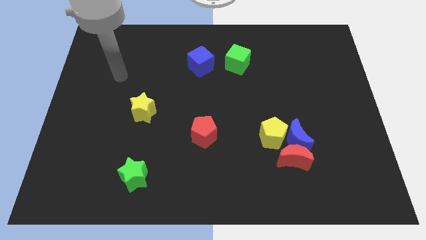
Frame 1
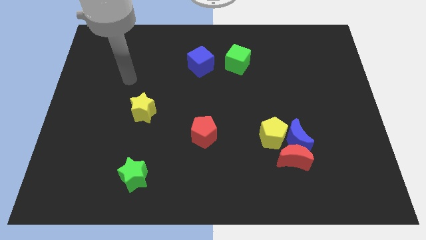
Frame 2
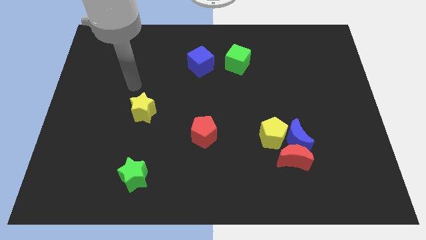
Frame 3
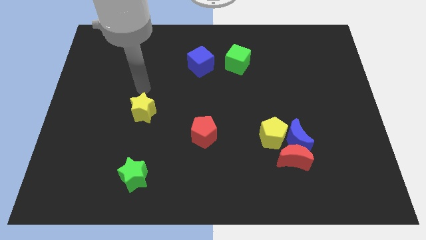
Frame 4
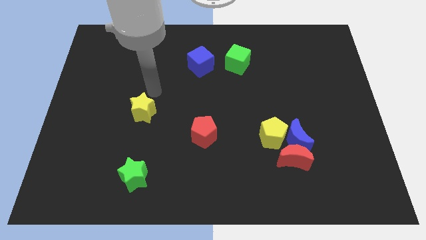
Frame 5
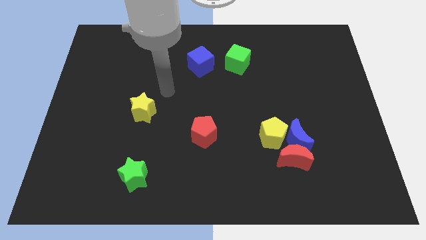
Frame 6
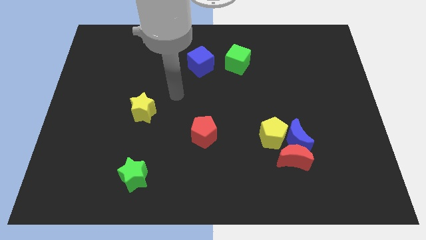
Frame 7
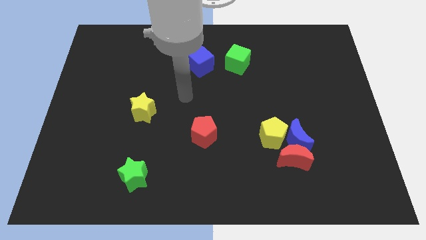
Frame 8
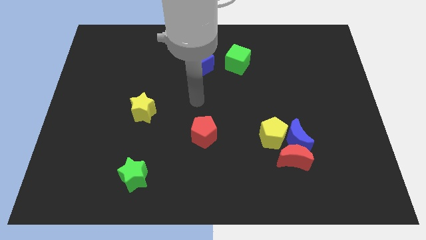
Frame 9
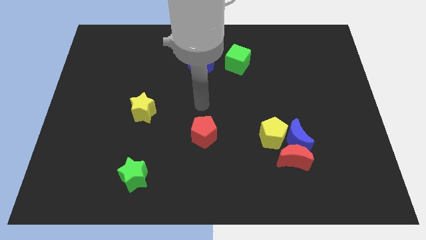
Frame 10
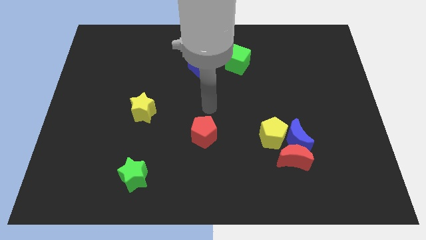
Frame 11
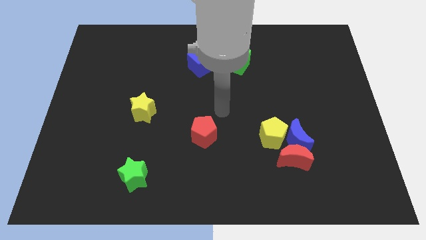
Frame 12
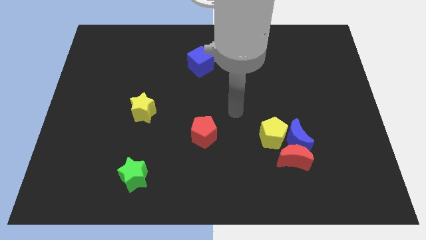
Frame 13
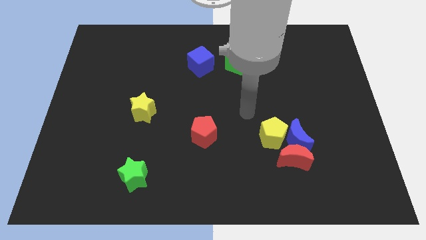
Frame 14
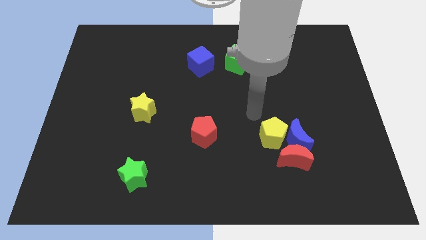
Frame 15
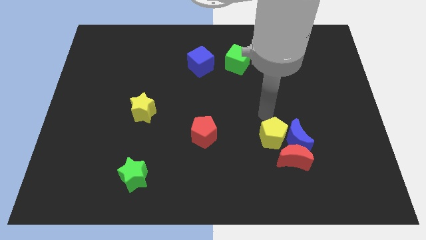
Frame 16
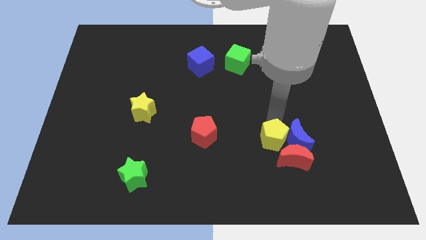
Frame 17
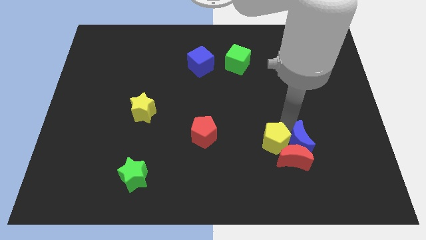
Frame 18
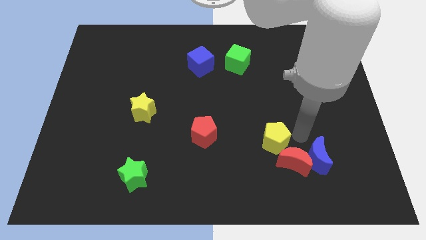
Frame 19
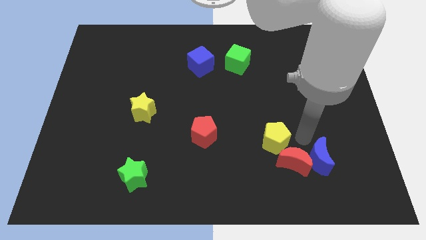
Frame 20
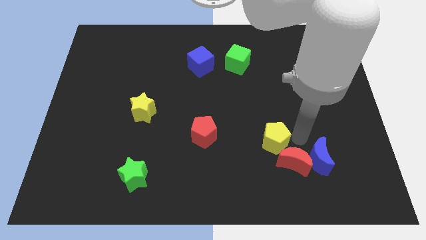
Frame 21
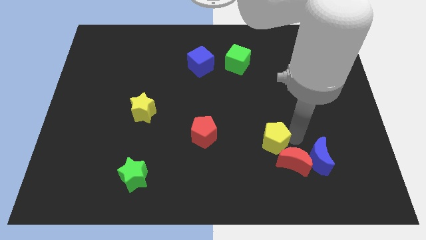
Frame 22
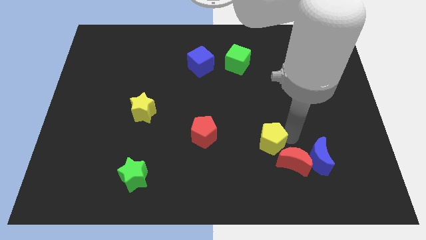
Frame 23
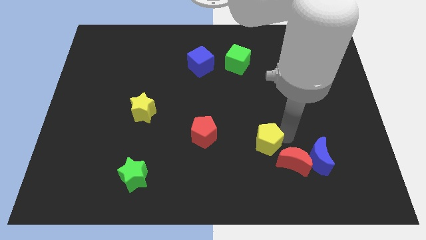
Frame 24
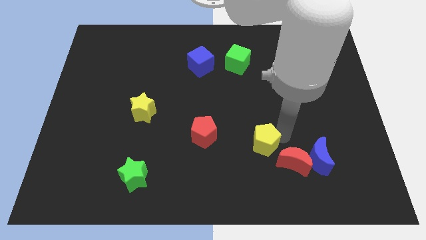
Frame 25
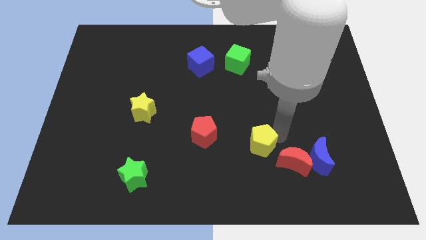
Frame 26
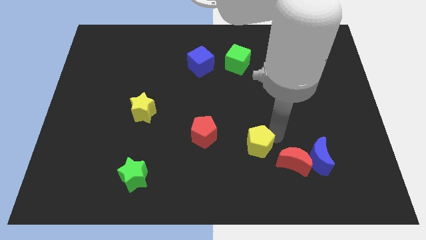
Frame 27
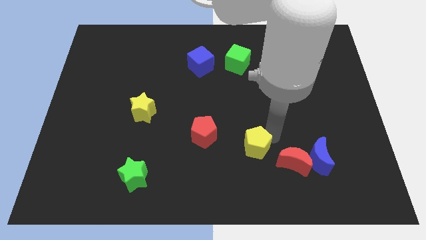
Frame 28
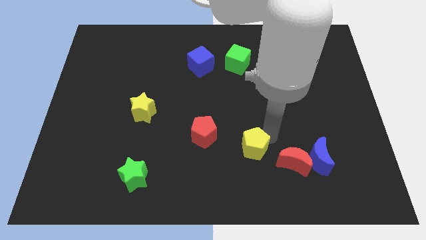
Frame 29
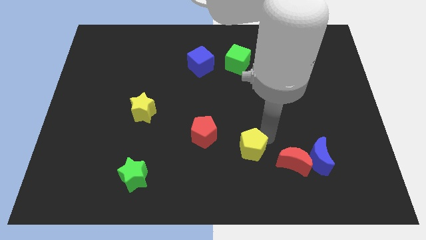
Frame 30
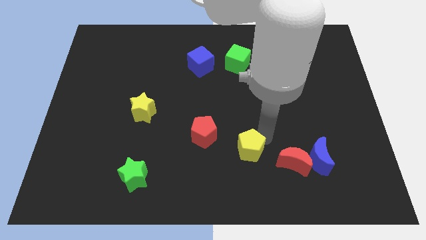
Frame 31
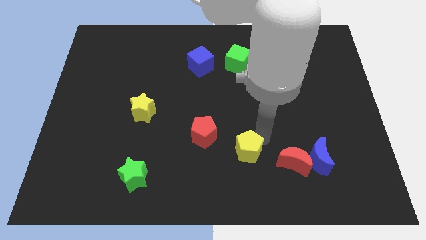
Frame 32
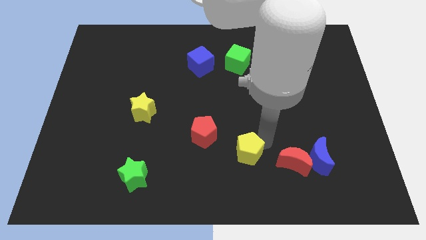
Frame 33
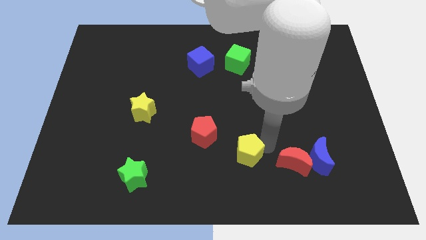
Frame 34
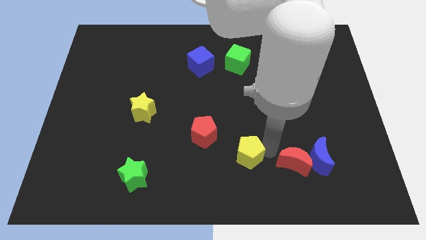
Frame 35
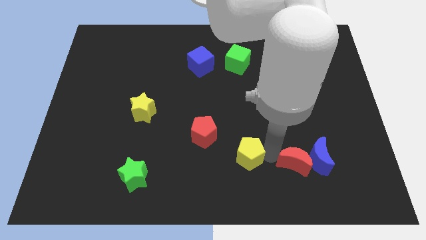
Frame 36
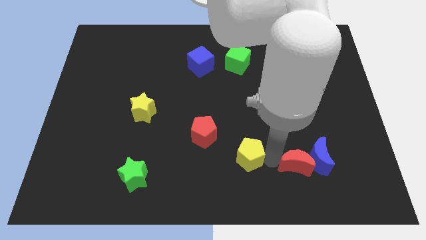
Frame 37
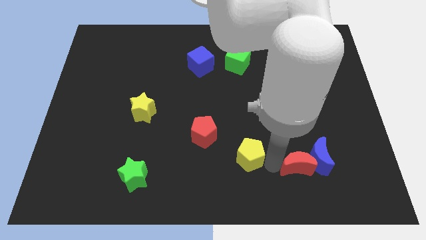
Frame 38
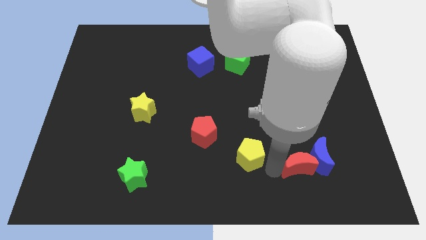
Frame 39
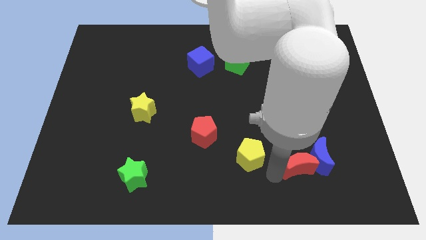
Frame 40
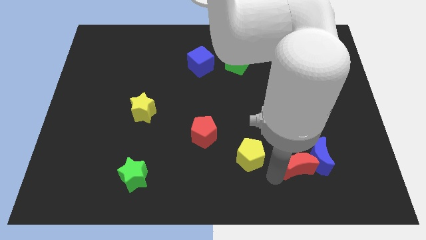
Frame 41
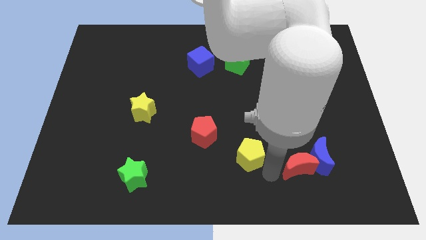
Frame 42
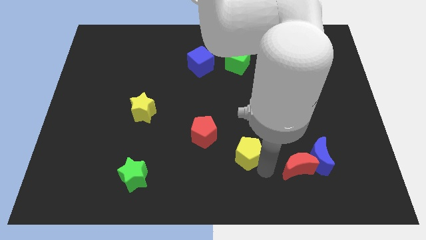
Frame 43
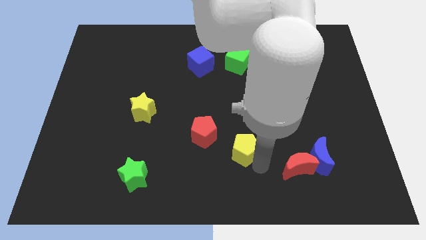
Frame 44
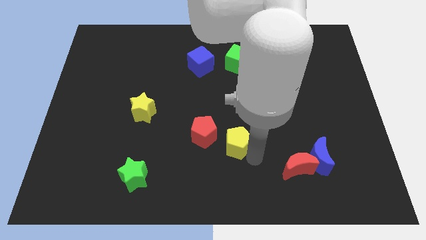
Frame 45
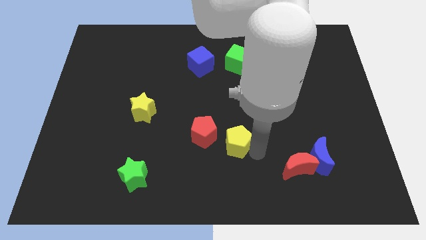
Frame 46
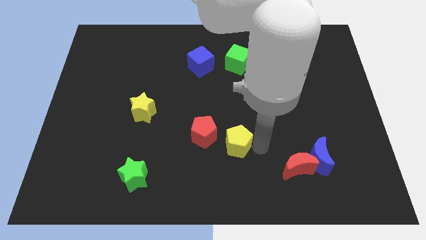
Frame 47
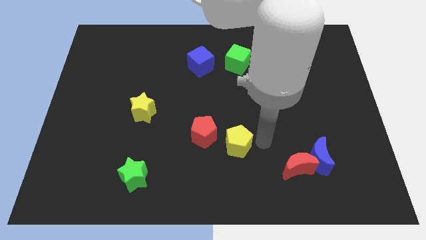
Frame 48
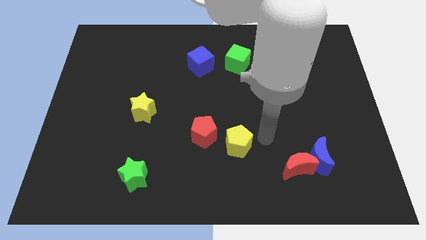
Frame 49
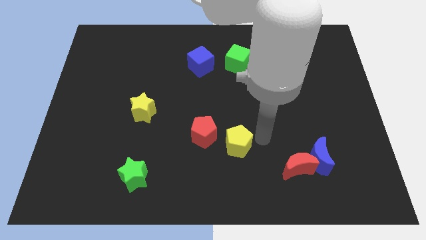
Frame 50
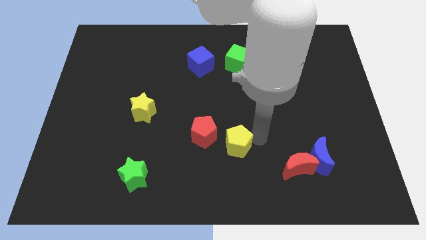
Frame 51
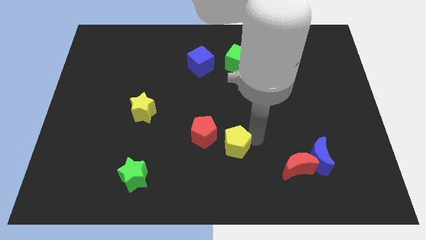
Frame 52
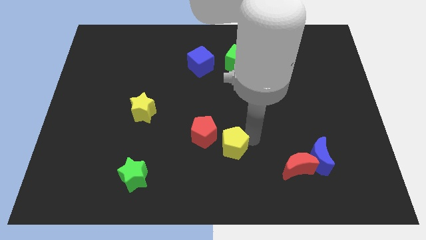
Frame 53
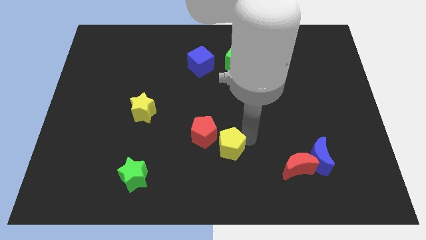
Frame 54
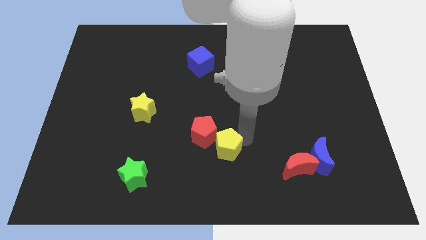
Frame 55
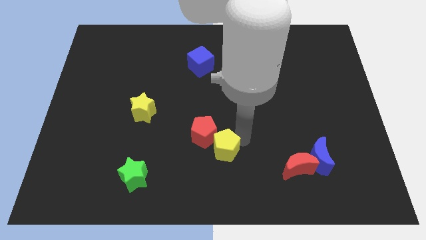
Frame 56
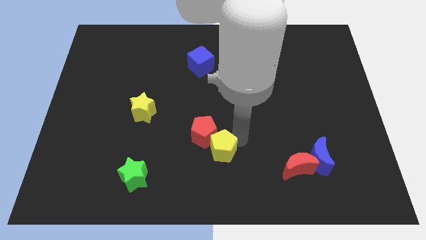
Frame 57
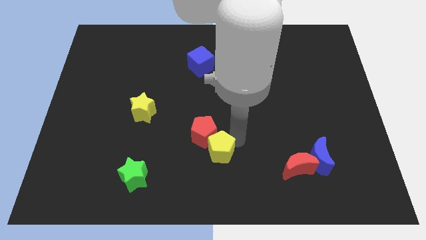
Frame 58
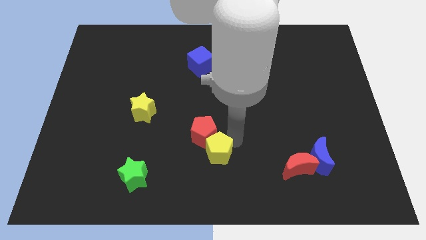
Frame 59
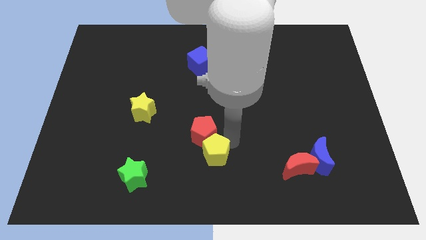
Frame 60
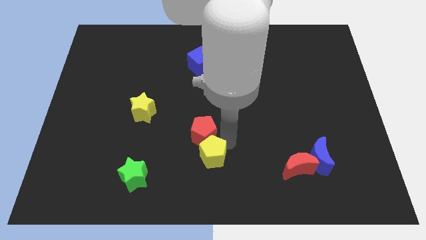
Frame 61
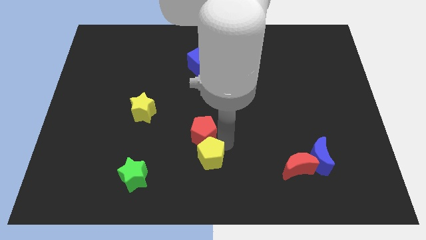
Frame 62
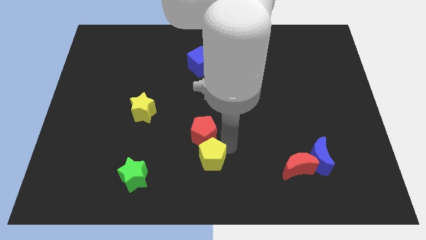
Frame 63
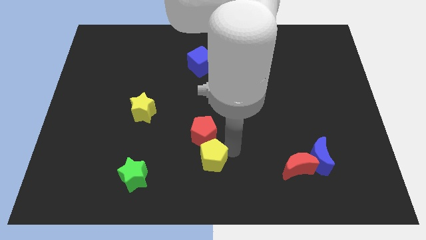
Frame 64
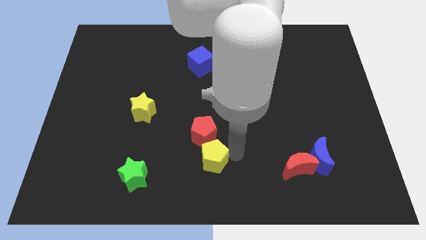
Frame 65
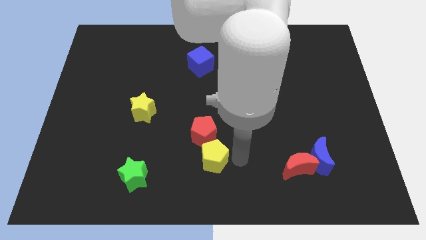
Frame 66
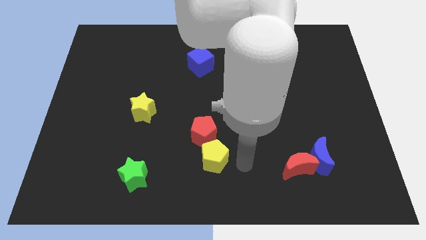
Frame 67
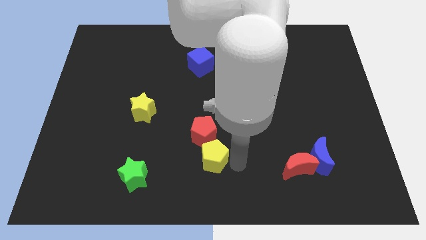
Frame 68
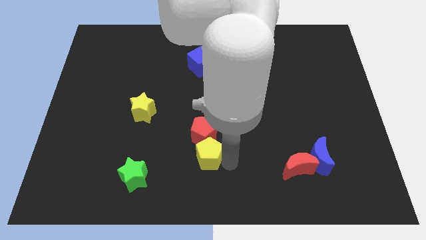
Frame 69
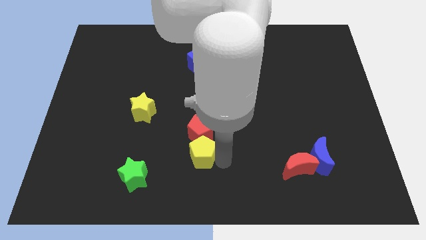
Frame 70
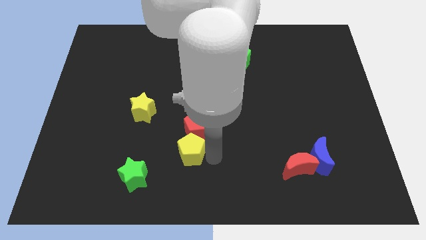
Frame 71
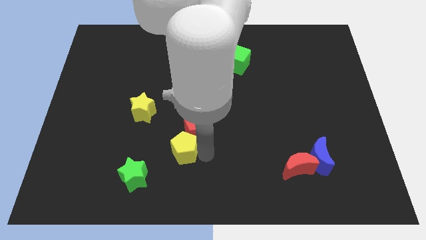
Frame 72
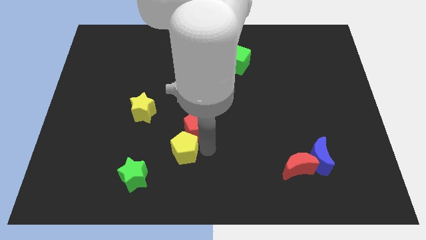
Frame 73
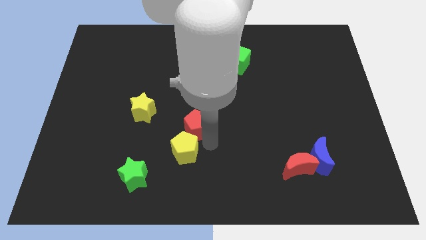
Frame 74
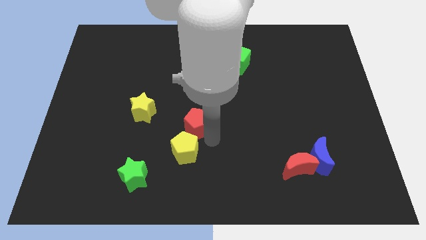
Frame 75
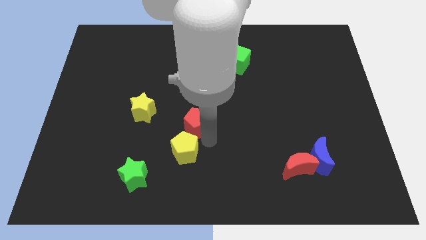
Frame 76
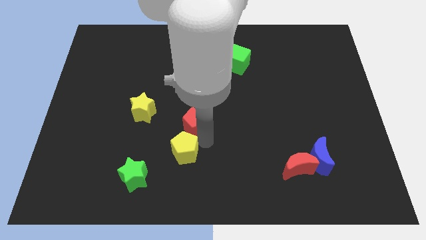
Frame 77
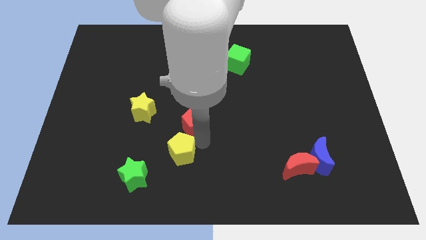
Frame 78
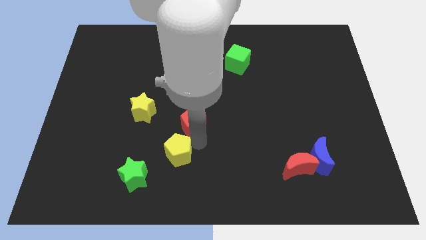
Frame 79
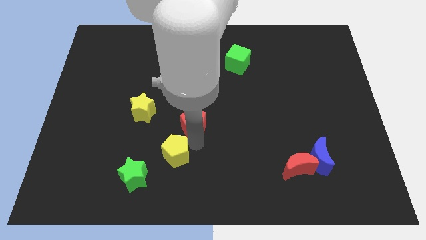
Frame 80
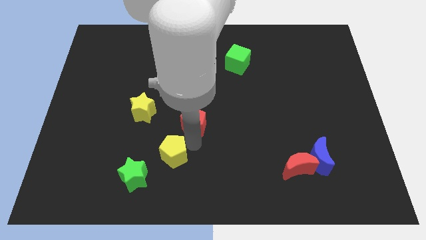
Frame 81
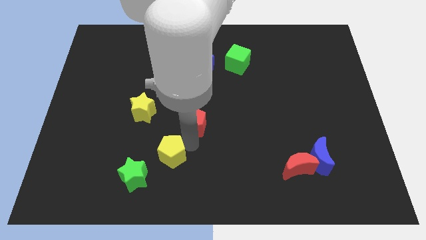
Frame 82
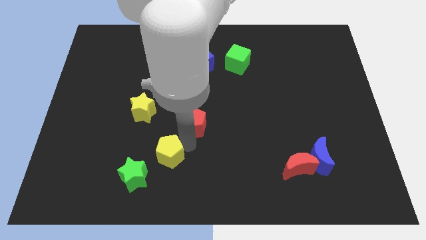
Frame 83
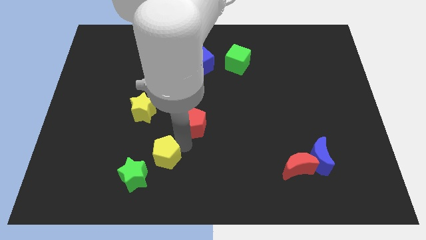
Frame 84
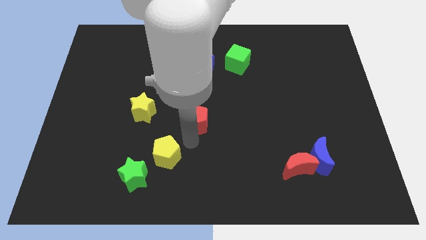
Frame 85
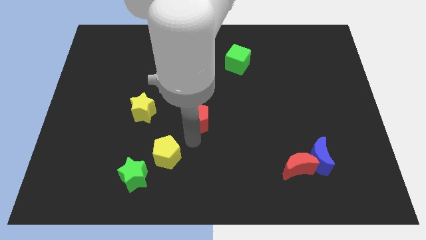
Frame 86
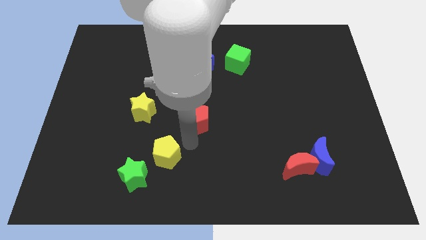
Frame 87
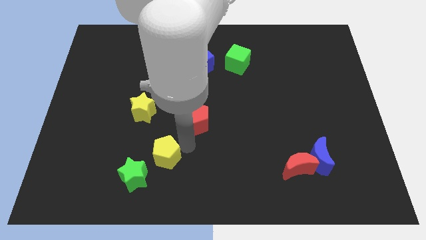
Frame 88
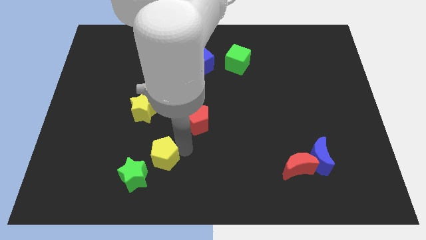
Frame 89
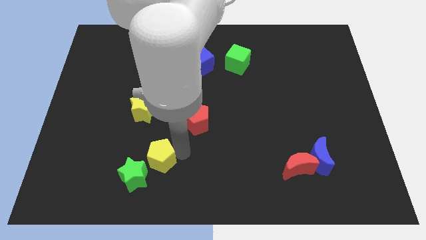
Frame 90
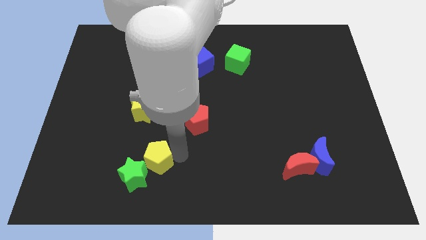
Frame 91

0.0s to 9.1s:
move the yellow pentagon next to the green star
